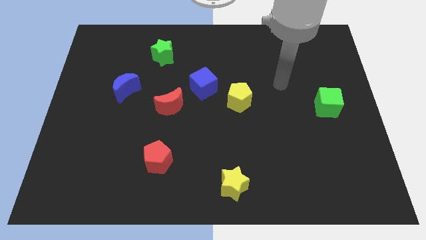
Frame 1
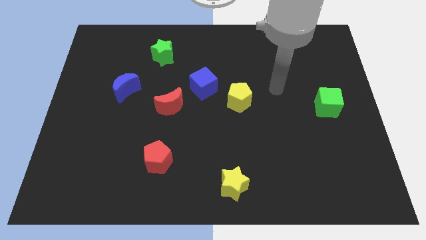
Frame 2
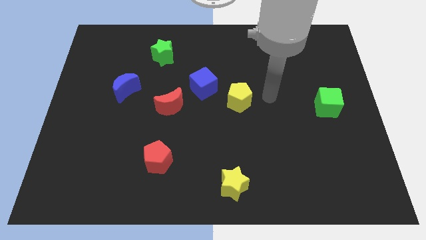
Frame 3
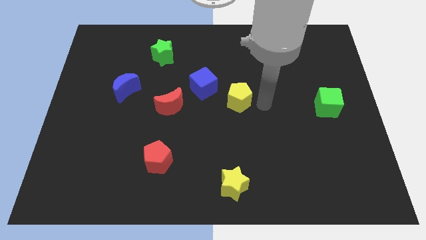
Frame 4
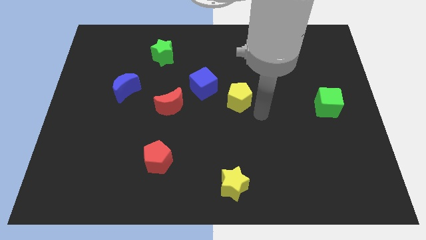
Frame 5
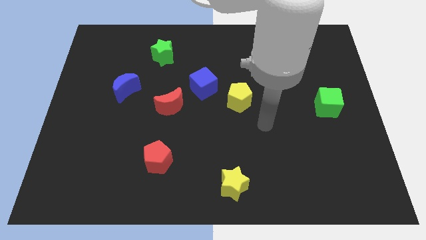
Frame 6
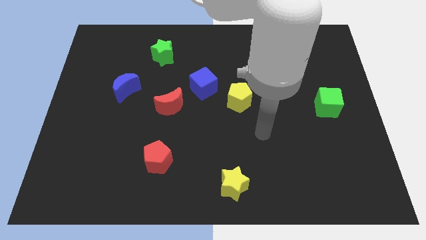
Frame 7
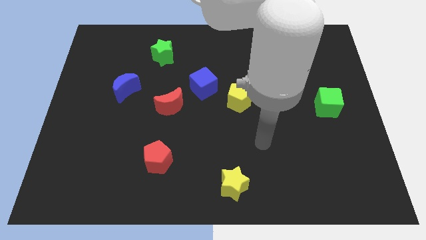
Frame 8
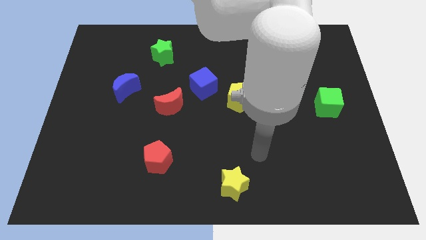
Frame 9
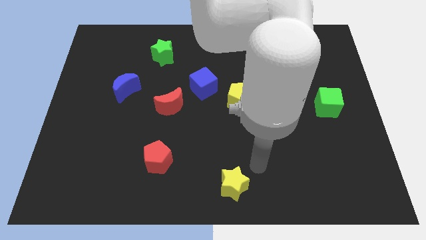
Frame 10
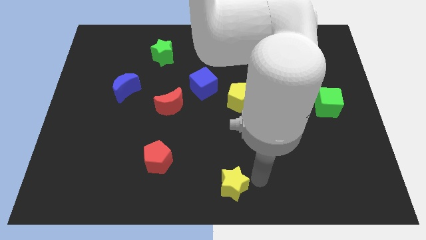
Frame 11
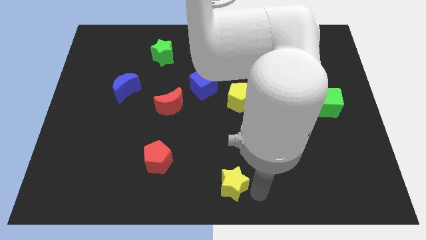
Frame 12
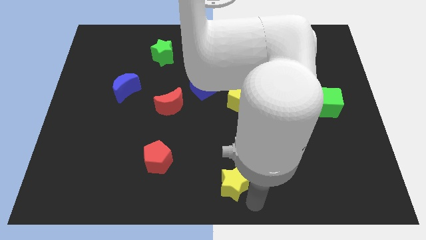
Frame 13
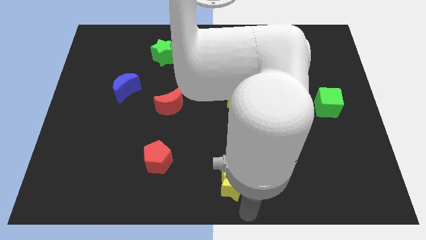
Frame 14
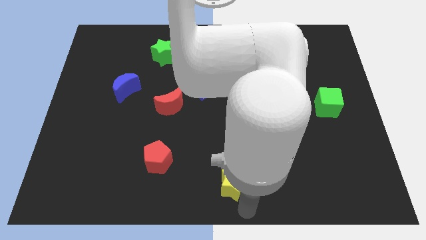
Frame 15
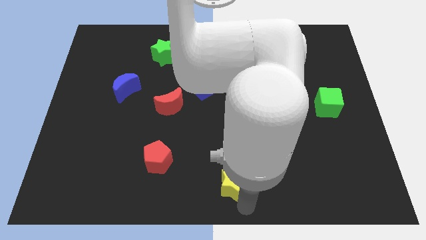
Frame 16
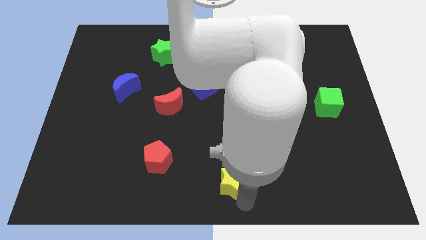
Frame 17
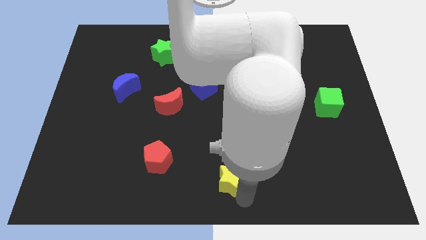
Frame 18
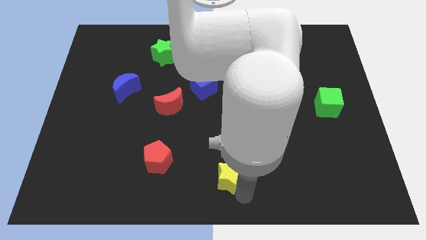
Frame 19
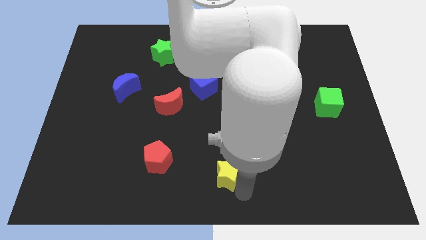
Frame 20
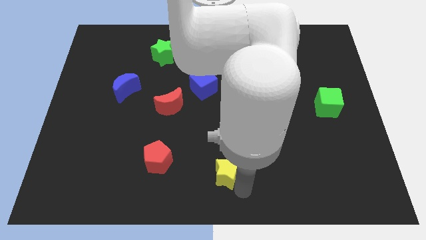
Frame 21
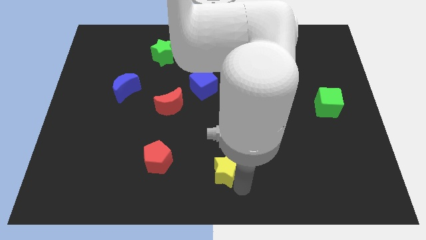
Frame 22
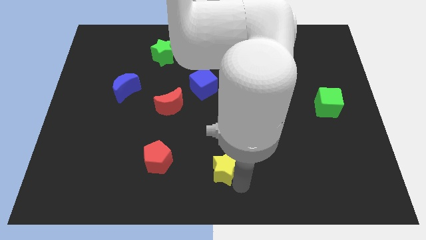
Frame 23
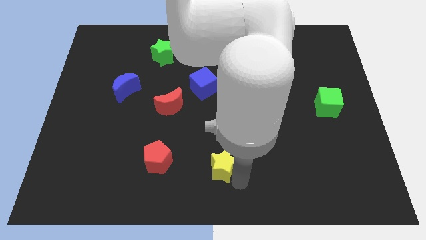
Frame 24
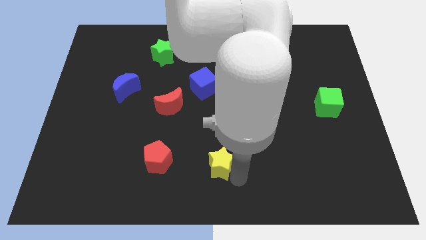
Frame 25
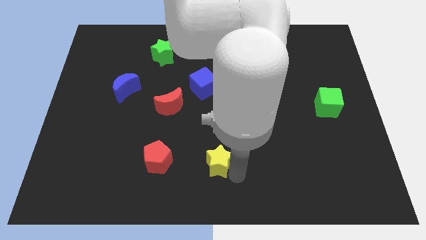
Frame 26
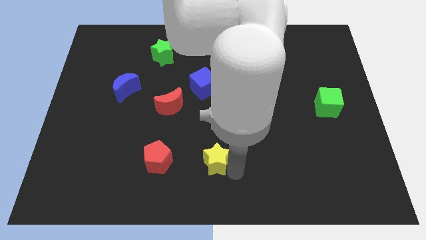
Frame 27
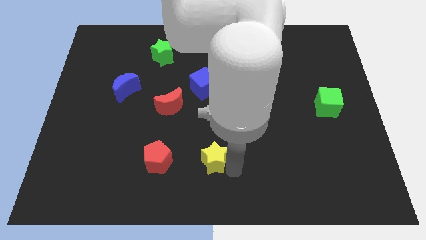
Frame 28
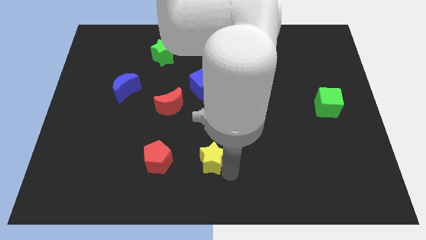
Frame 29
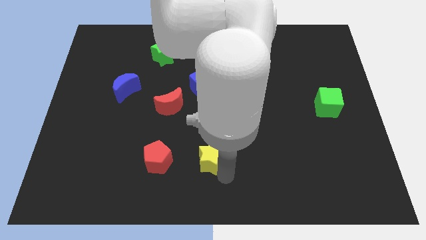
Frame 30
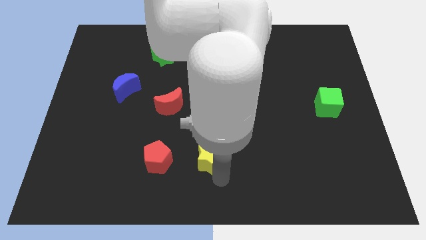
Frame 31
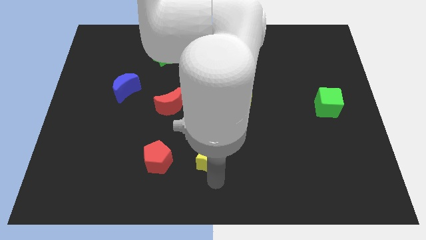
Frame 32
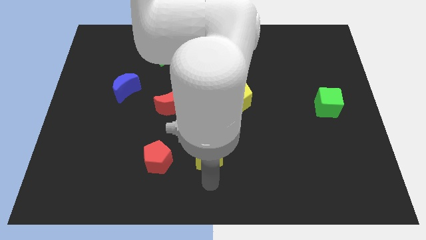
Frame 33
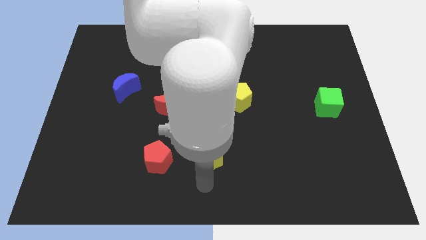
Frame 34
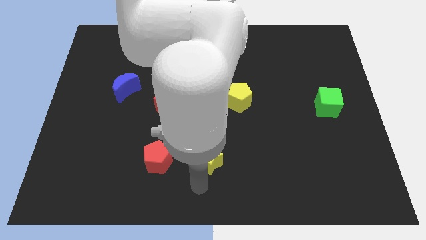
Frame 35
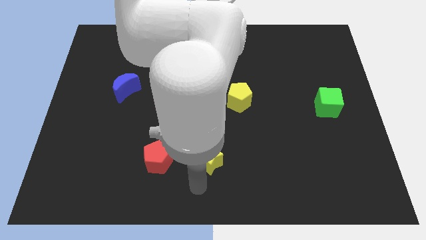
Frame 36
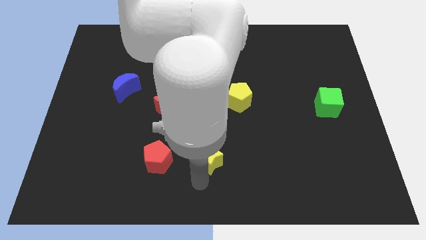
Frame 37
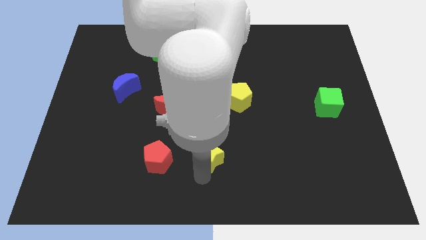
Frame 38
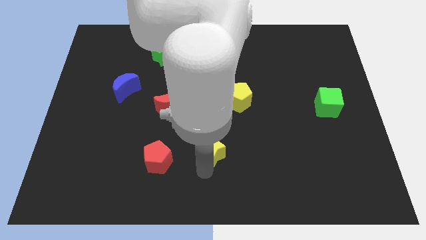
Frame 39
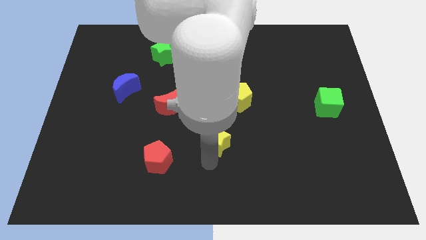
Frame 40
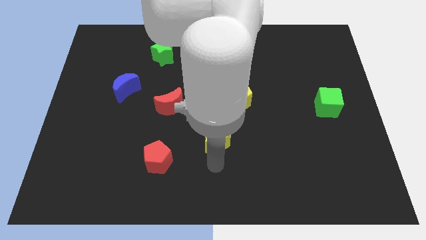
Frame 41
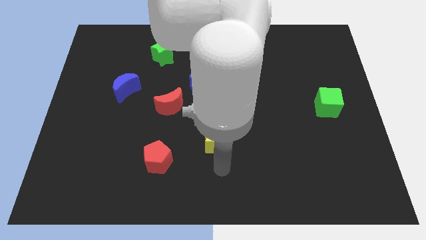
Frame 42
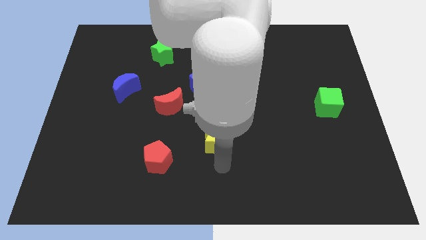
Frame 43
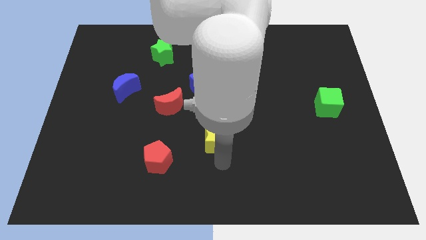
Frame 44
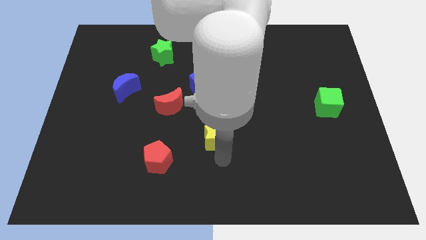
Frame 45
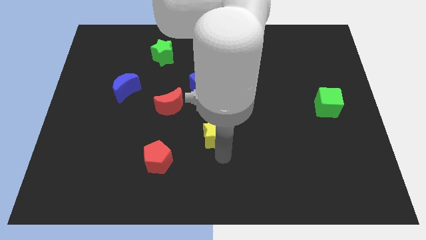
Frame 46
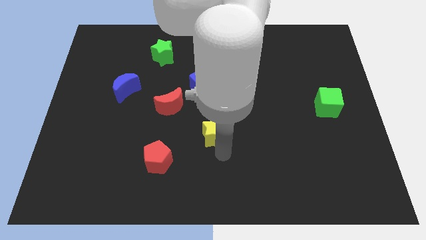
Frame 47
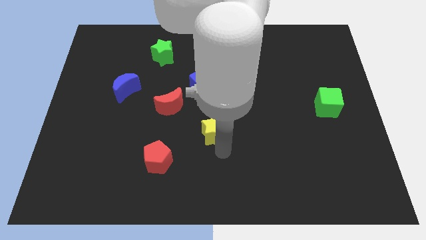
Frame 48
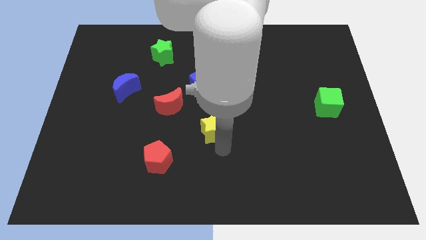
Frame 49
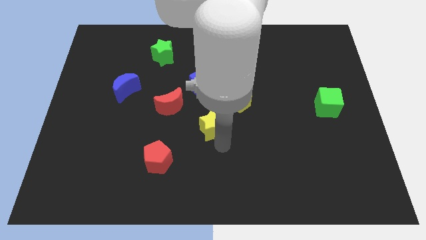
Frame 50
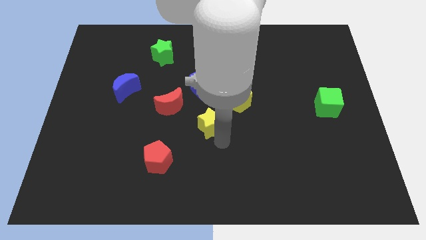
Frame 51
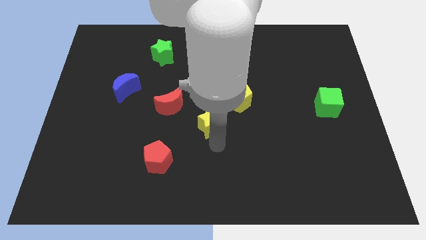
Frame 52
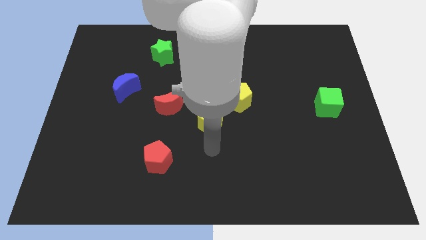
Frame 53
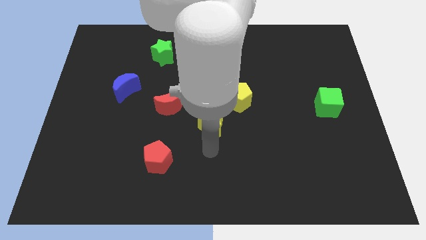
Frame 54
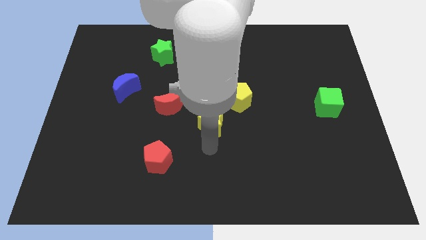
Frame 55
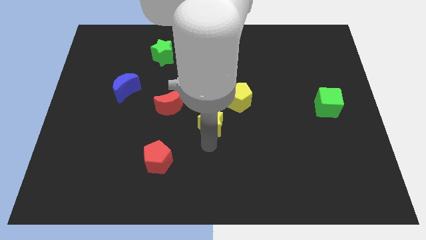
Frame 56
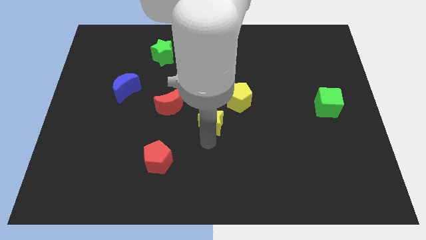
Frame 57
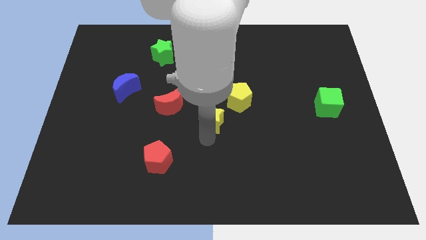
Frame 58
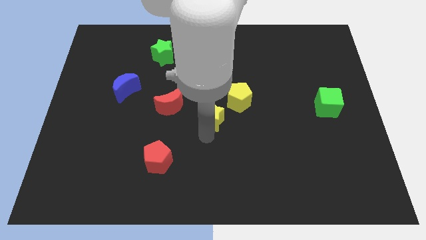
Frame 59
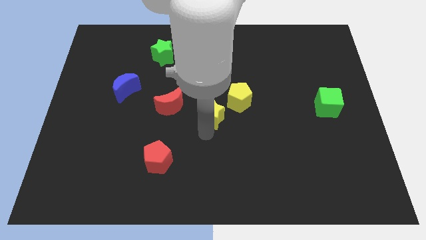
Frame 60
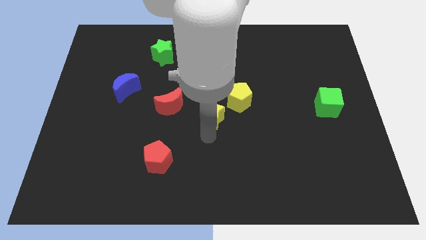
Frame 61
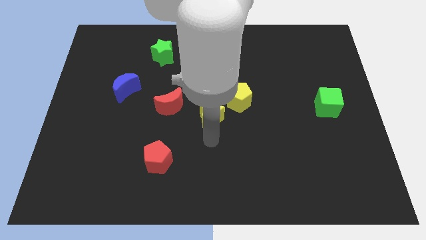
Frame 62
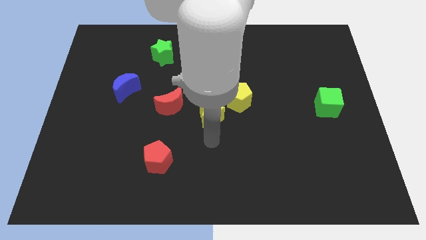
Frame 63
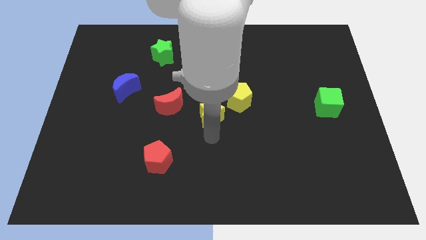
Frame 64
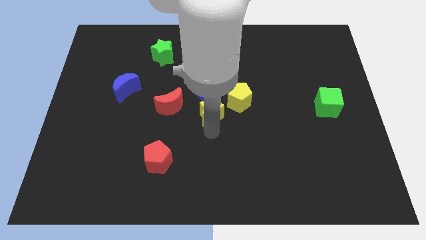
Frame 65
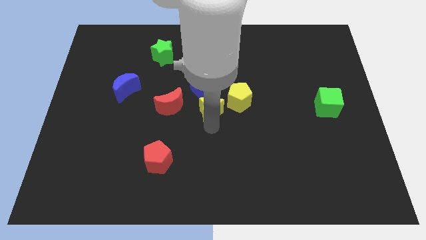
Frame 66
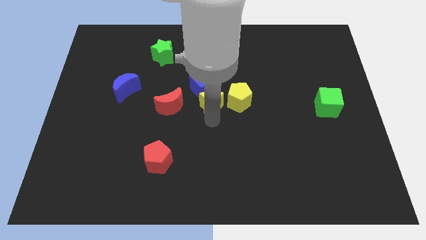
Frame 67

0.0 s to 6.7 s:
put the yellow star close to the blue cube

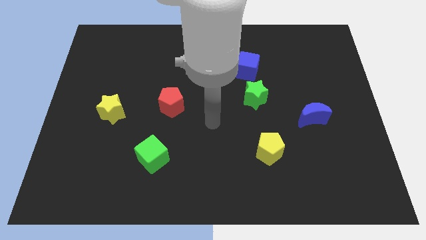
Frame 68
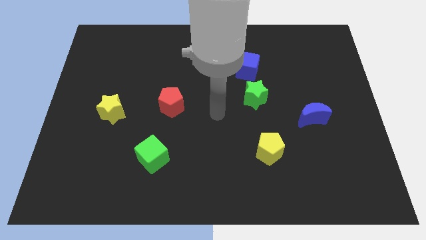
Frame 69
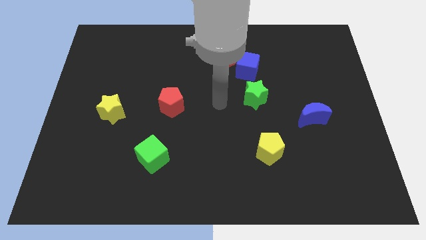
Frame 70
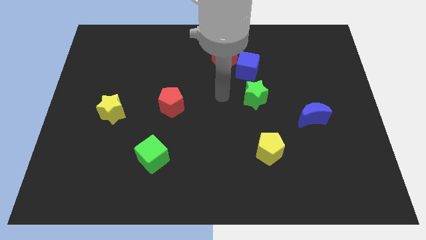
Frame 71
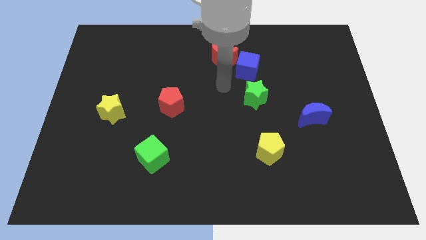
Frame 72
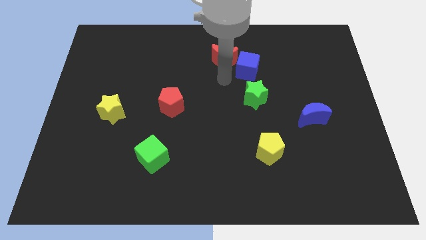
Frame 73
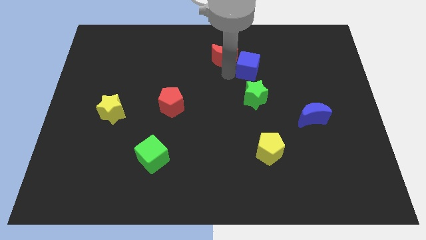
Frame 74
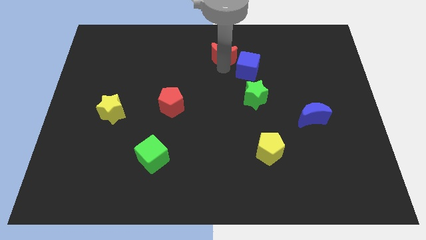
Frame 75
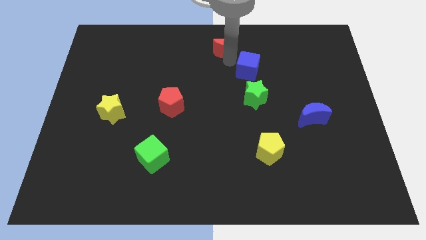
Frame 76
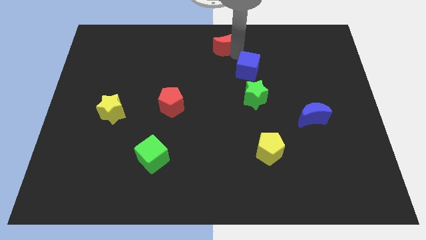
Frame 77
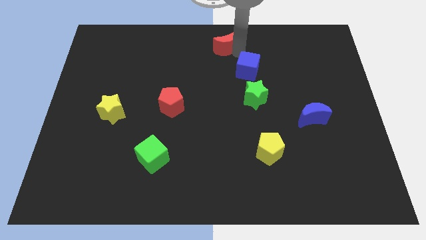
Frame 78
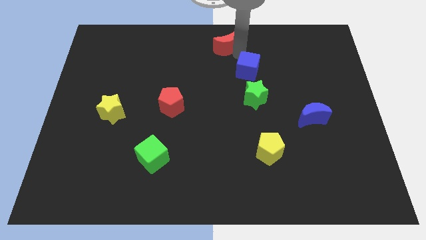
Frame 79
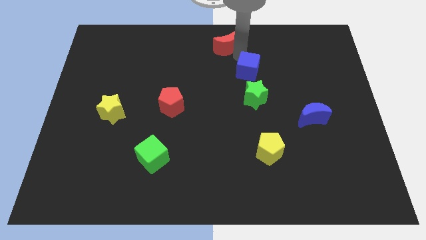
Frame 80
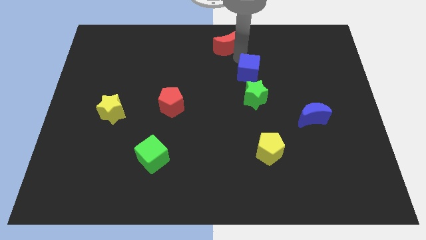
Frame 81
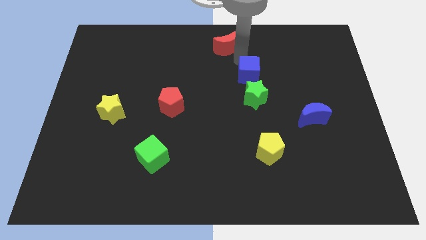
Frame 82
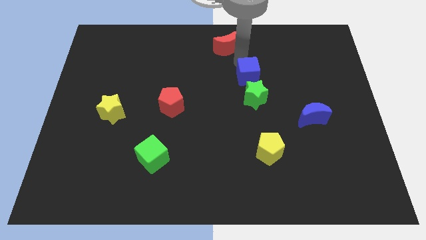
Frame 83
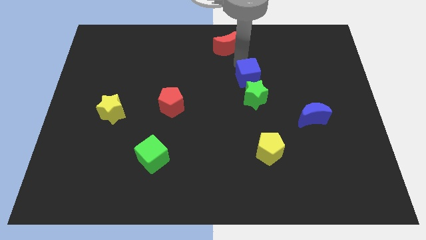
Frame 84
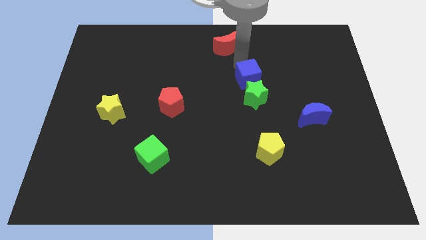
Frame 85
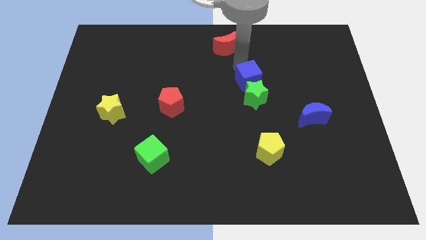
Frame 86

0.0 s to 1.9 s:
put the blue cube towards the green star

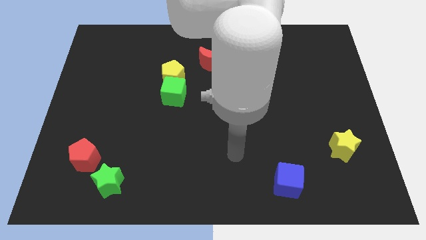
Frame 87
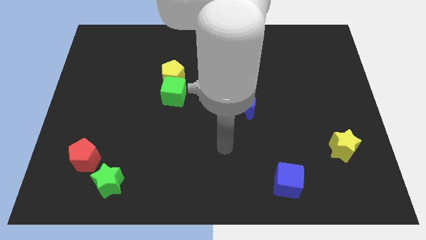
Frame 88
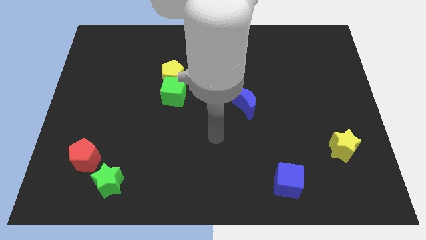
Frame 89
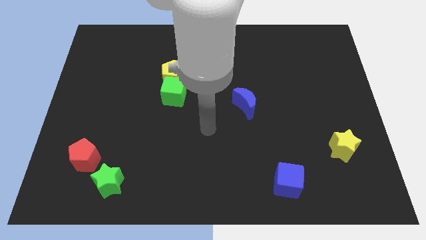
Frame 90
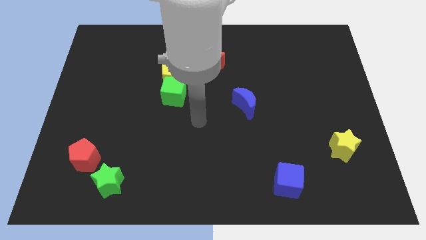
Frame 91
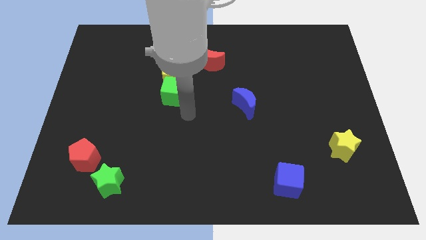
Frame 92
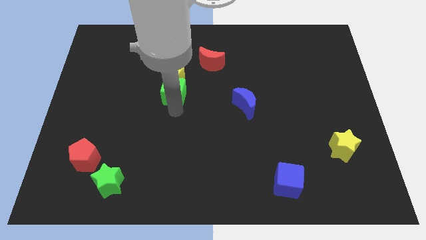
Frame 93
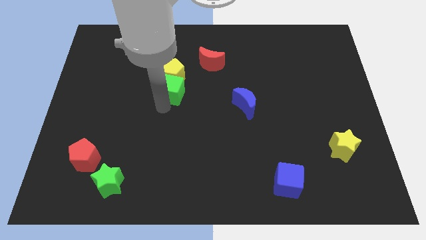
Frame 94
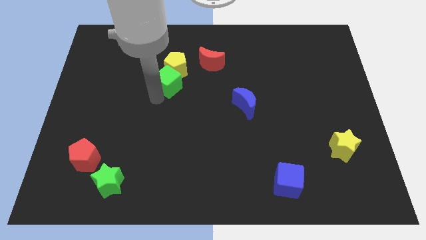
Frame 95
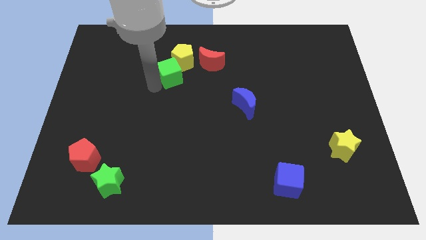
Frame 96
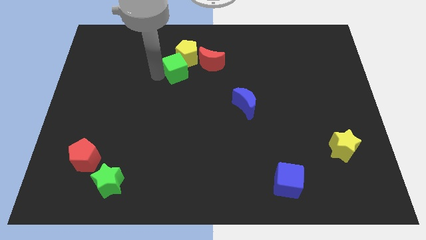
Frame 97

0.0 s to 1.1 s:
push the yellow pentagon next to the red moon
